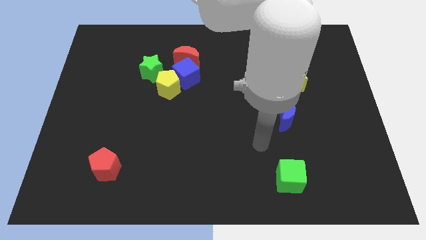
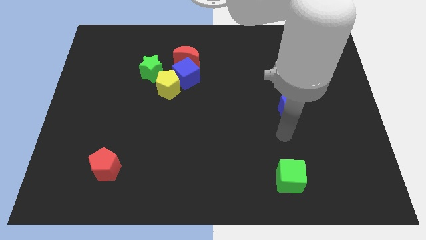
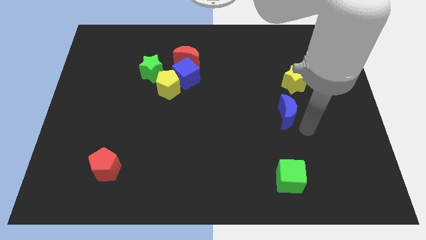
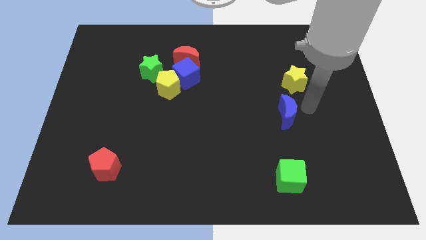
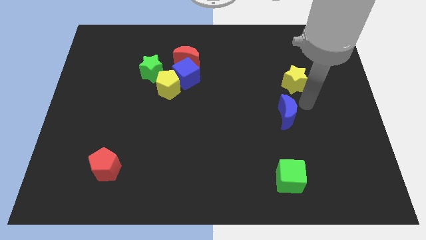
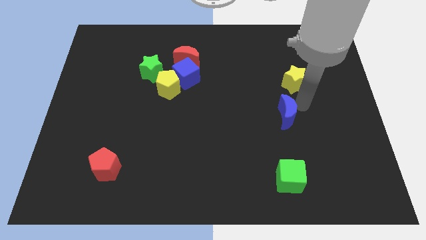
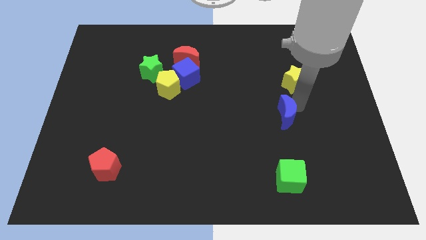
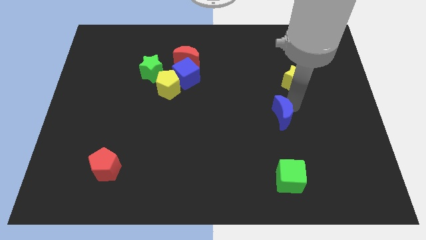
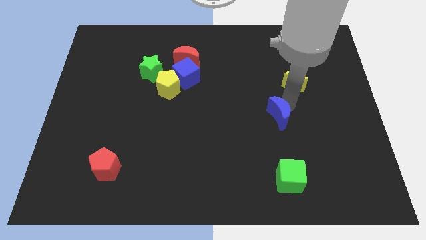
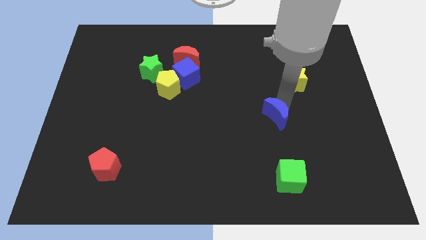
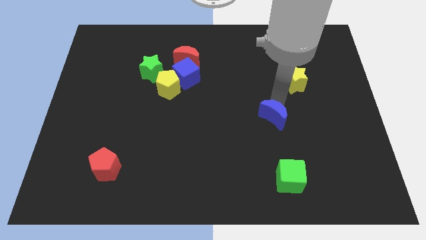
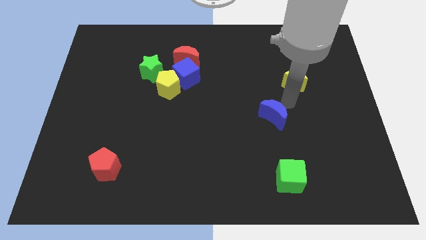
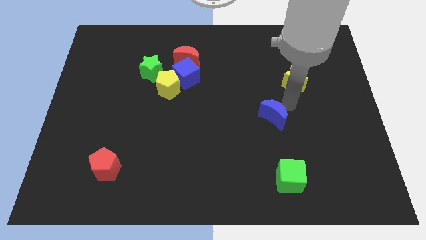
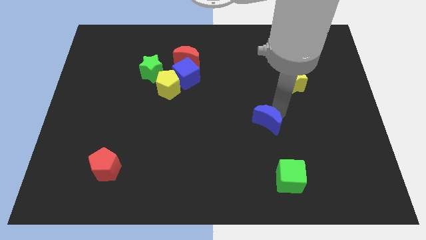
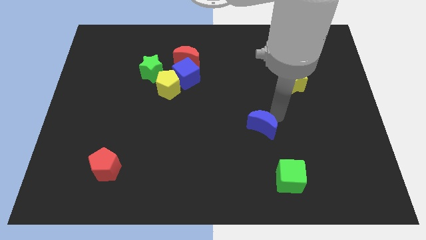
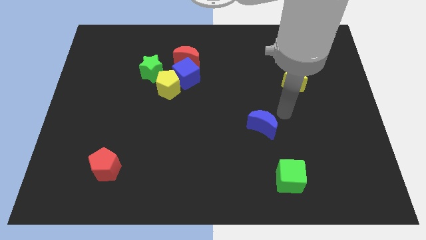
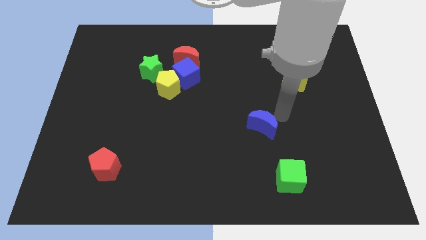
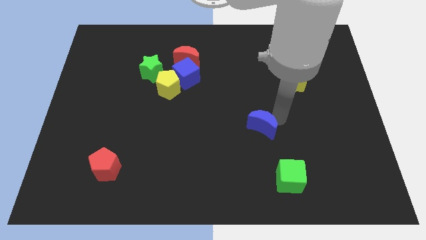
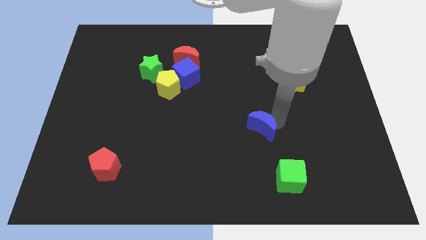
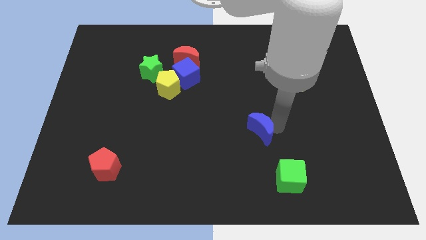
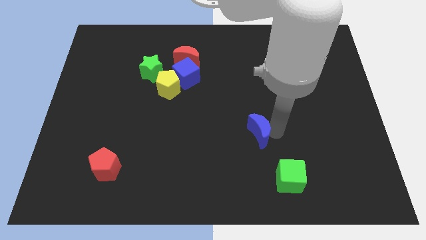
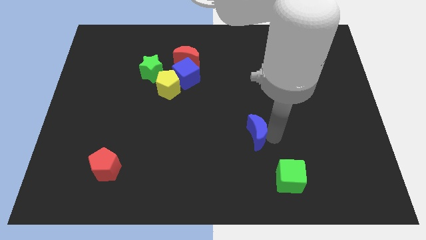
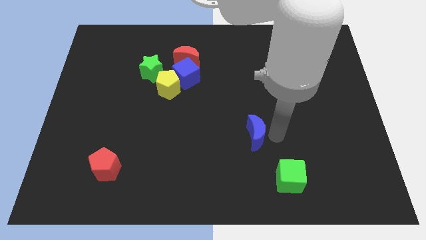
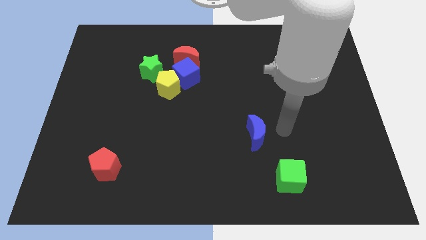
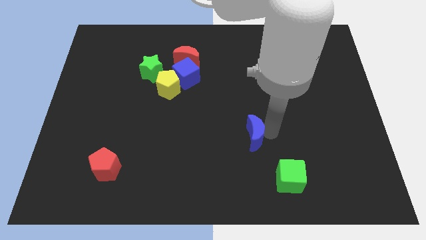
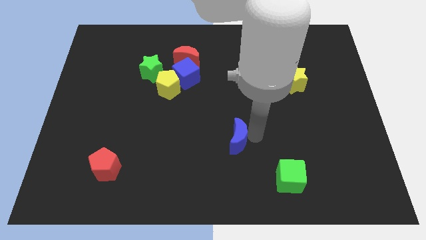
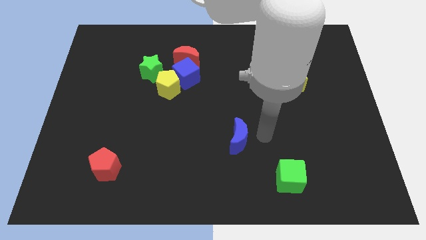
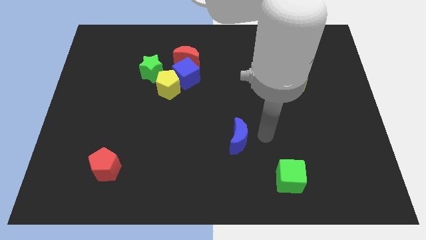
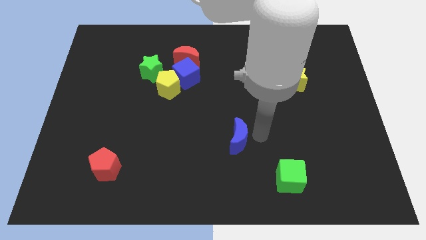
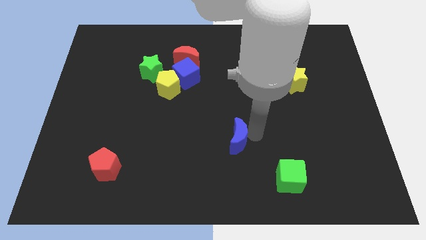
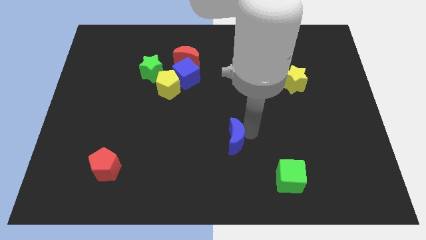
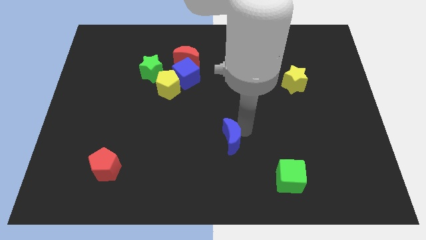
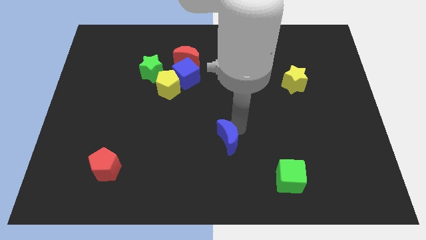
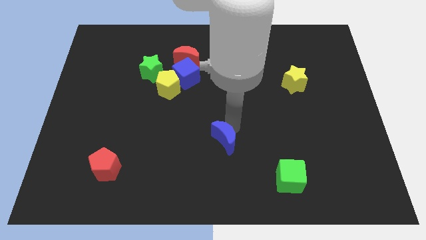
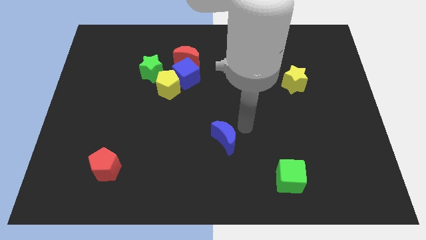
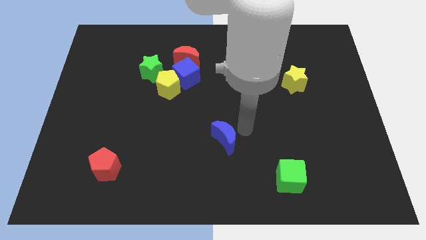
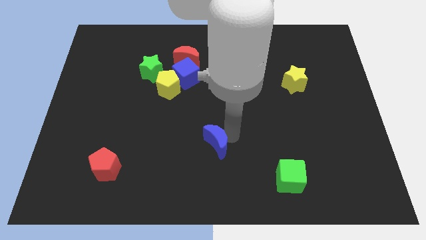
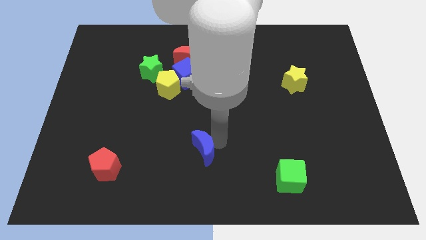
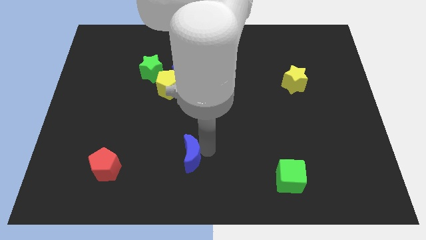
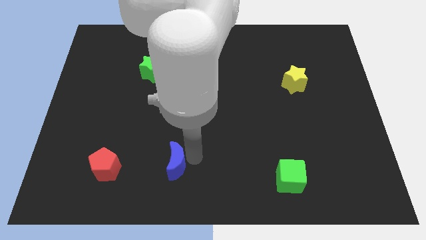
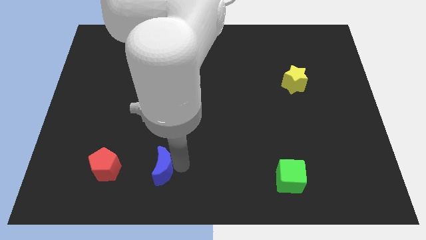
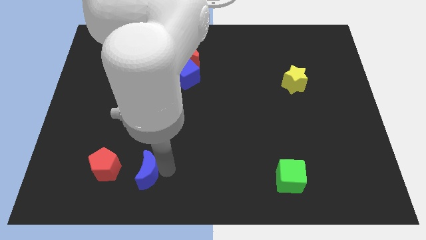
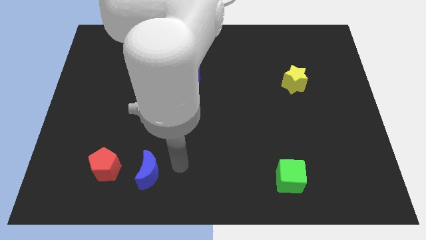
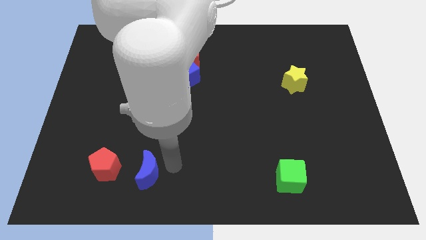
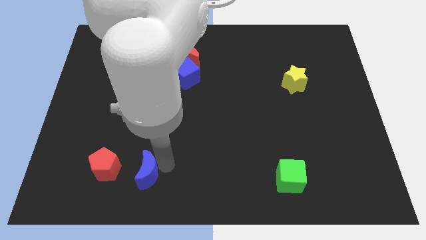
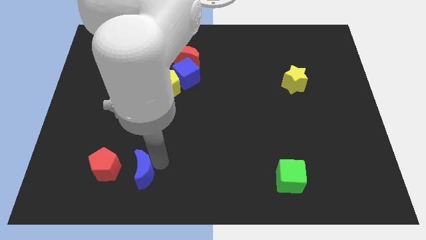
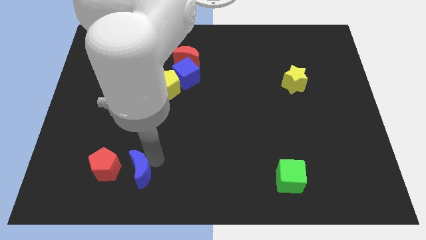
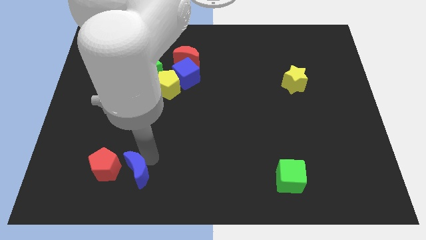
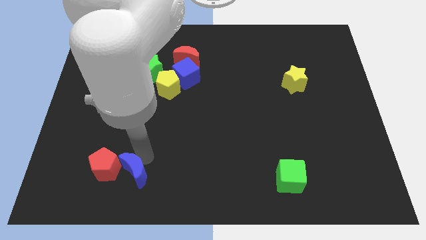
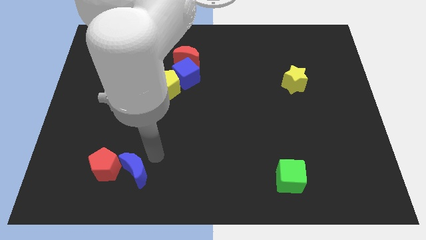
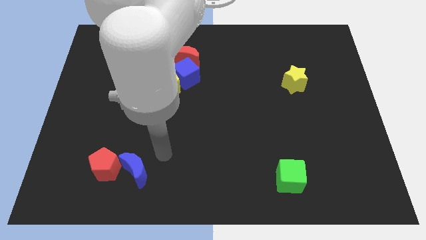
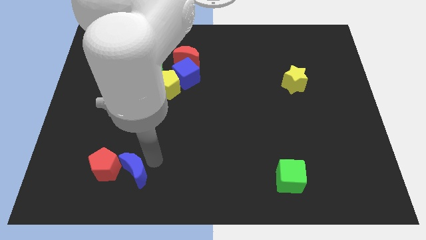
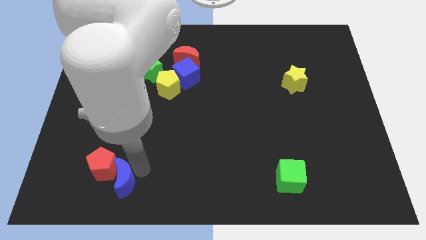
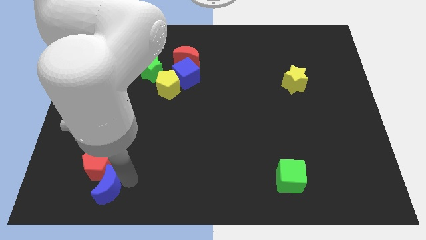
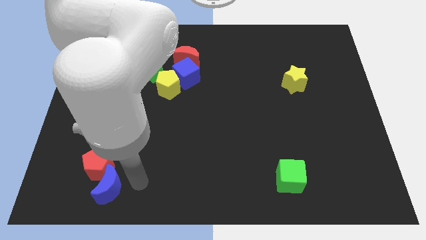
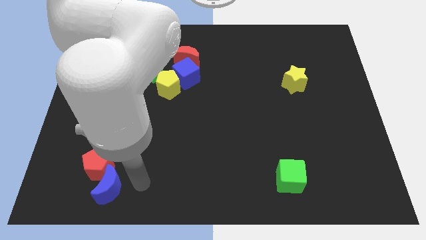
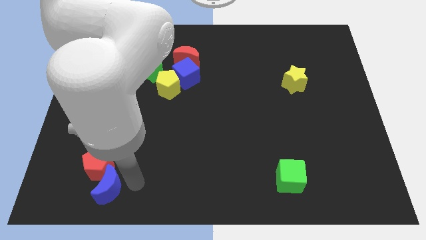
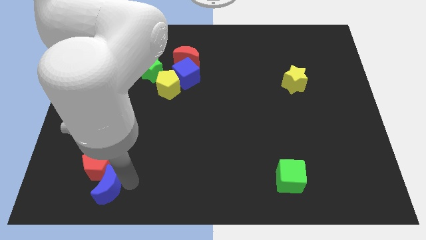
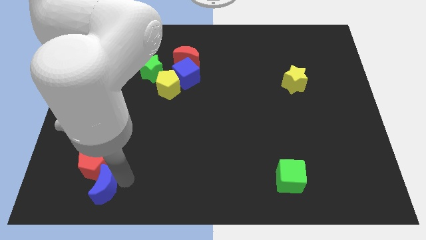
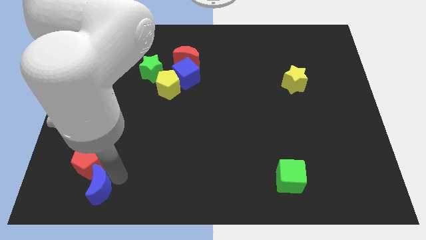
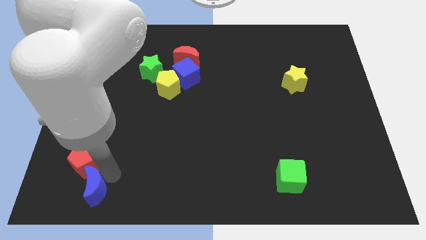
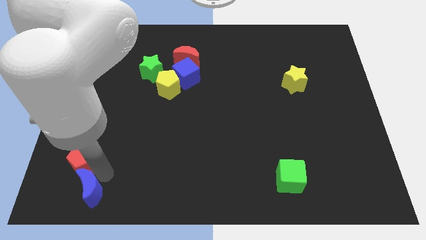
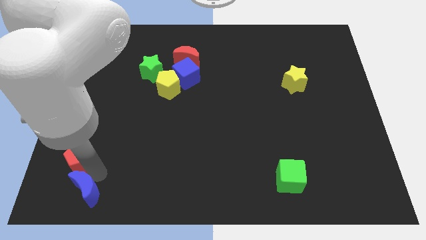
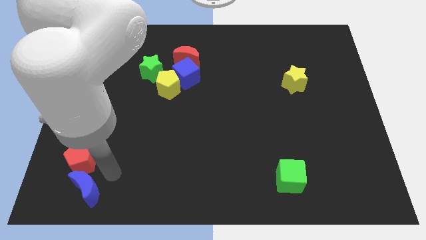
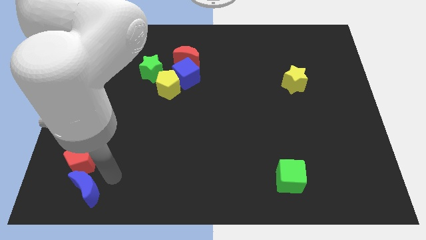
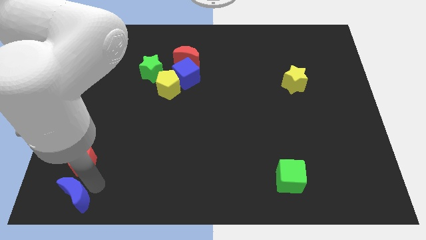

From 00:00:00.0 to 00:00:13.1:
push the blue moon to the bottom left

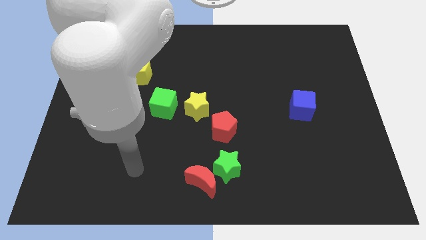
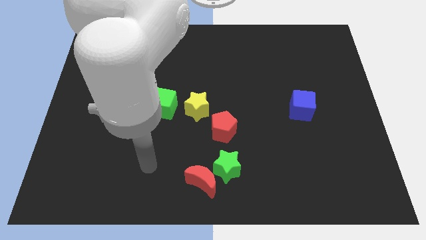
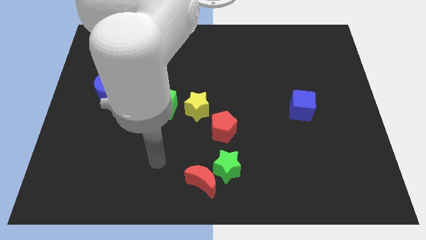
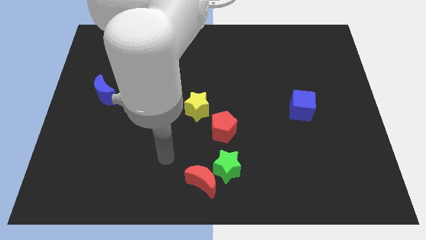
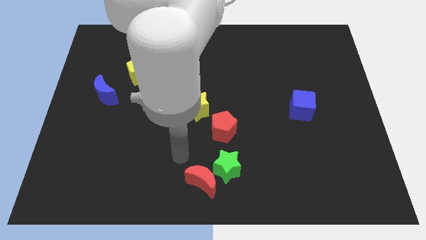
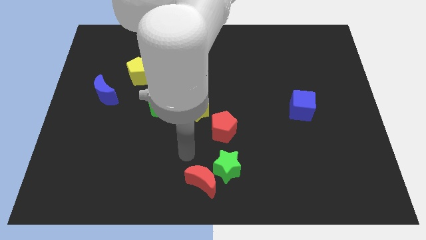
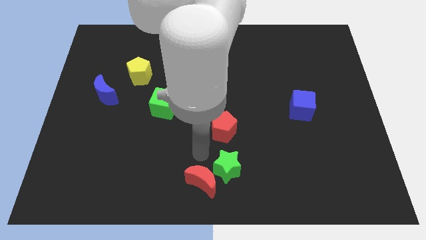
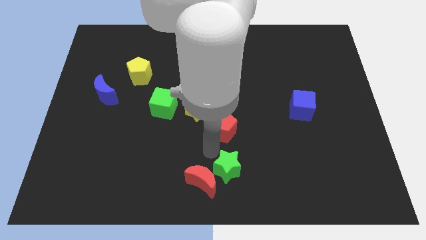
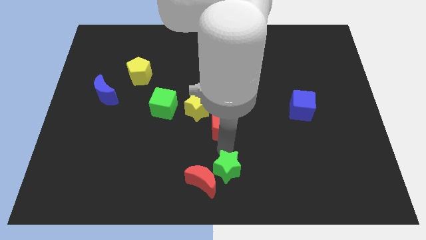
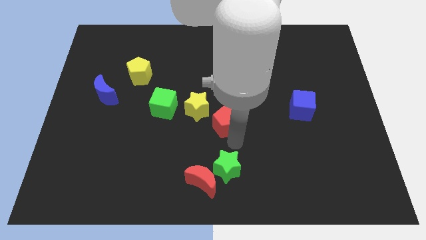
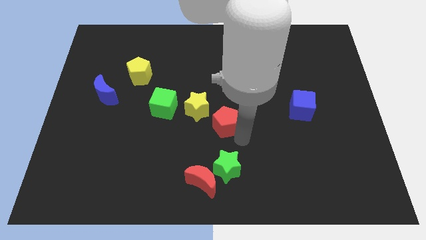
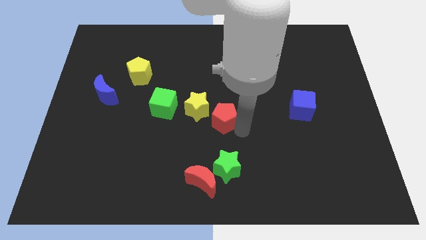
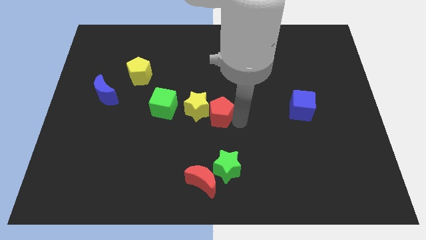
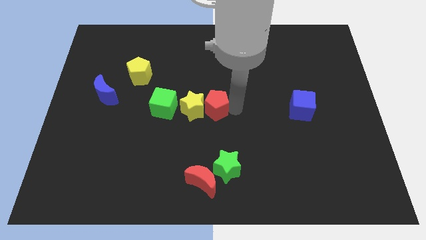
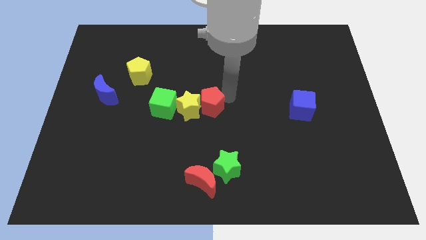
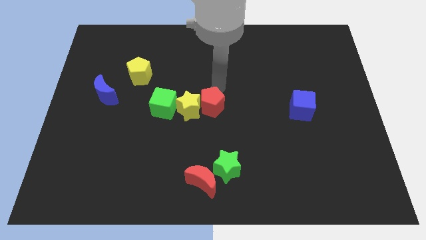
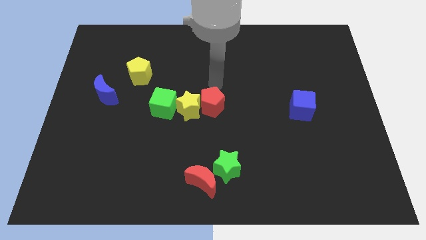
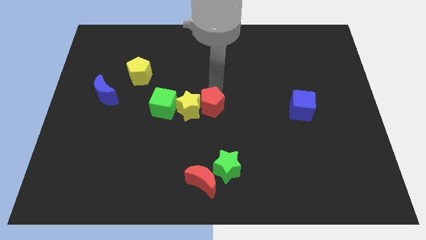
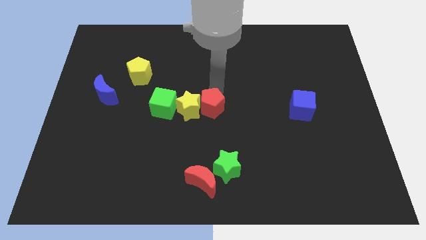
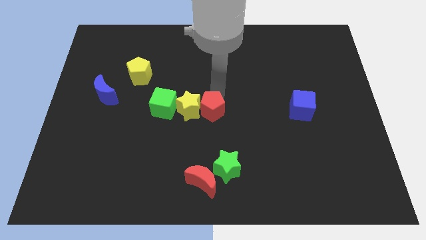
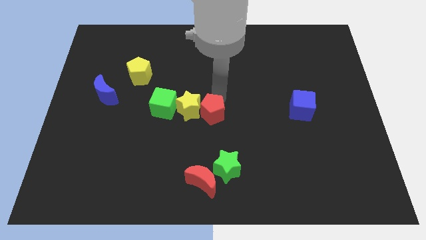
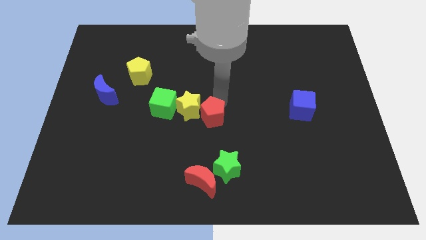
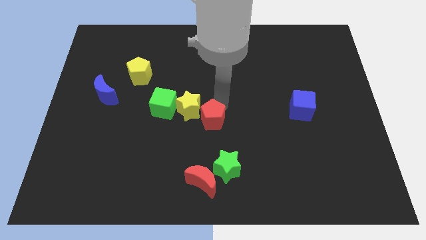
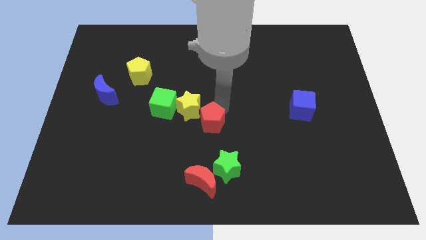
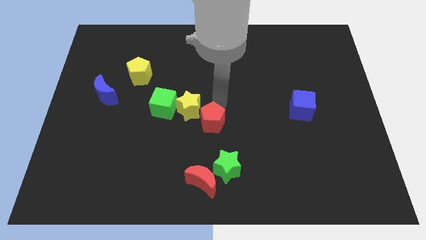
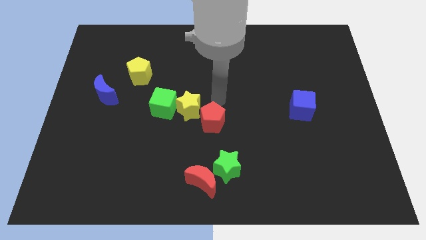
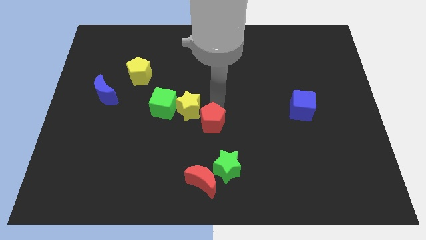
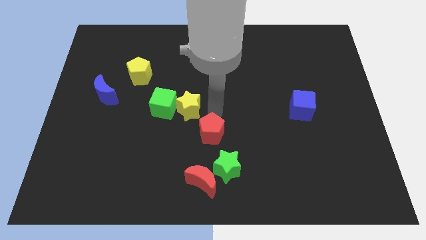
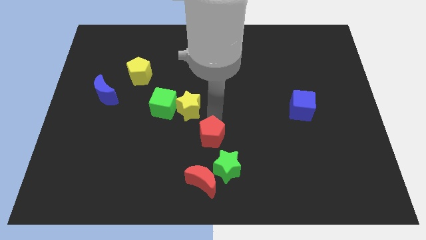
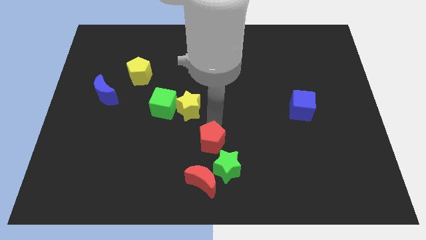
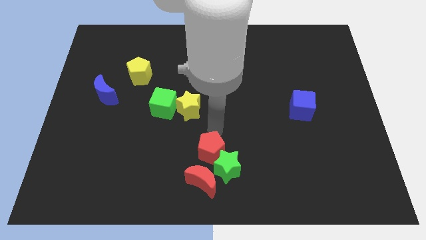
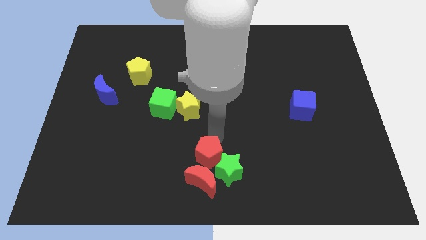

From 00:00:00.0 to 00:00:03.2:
push the red pentagon to the bottom
